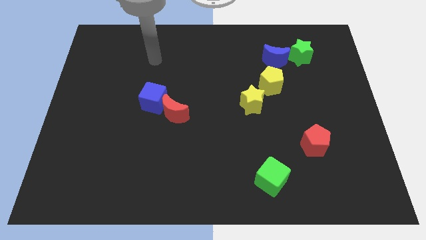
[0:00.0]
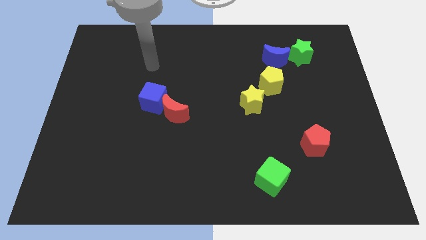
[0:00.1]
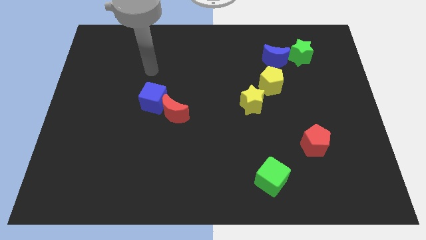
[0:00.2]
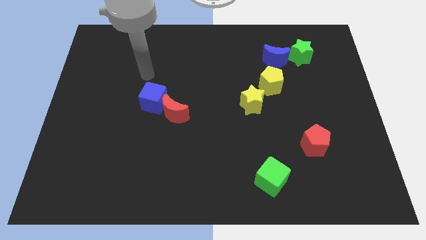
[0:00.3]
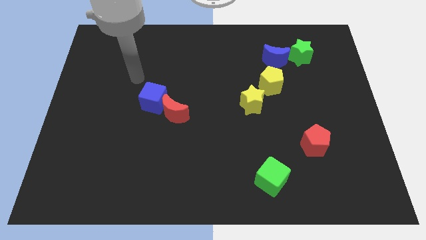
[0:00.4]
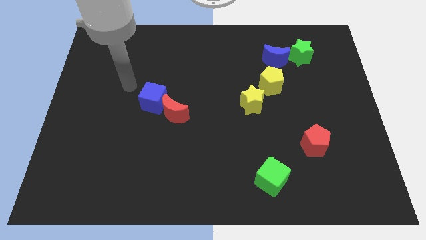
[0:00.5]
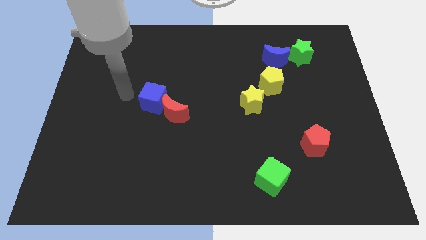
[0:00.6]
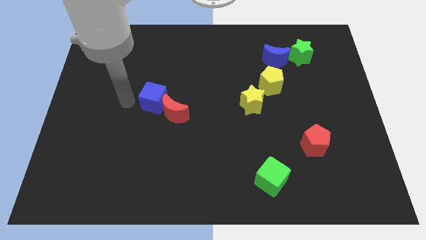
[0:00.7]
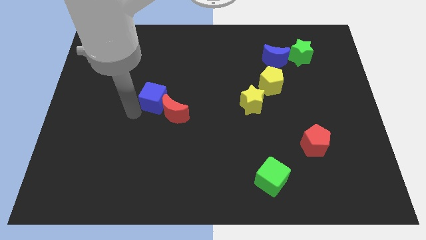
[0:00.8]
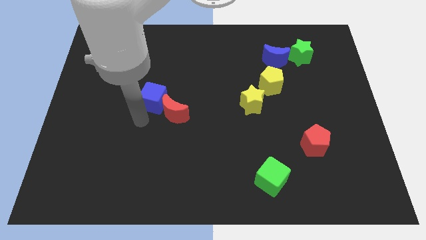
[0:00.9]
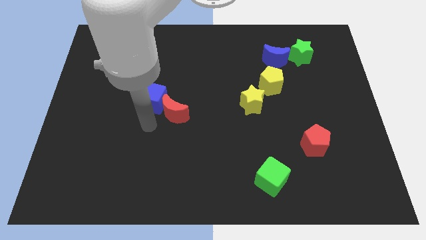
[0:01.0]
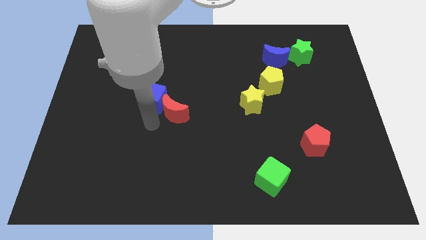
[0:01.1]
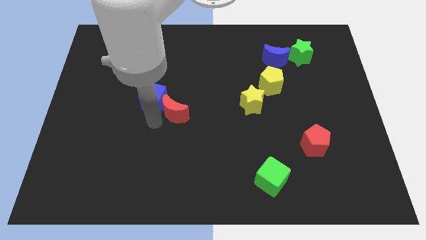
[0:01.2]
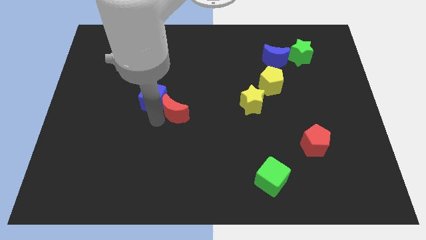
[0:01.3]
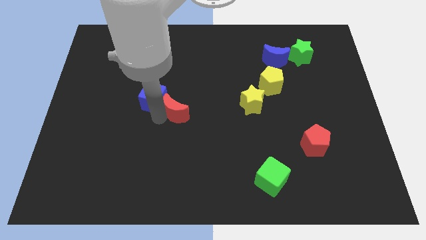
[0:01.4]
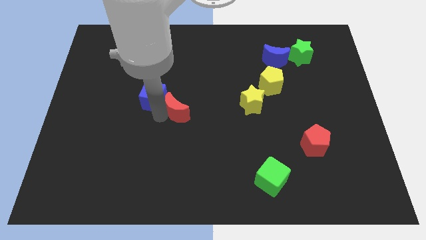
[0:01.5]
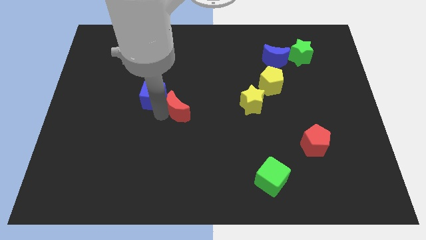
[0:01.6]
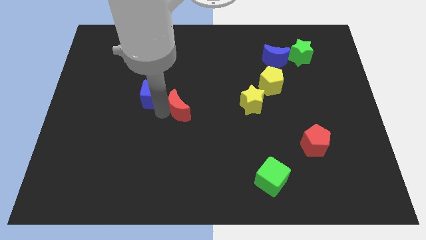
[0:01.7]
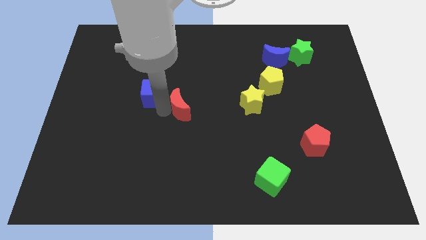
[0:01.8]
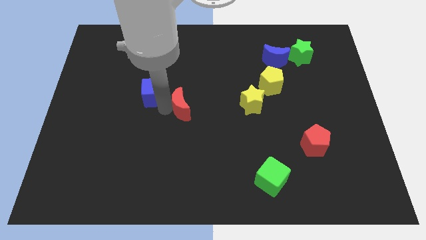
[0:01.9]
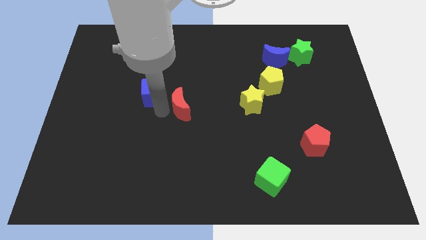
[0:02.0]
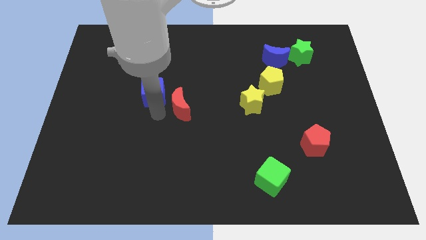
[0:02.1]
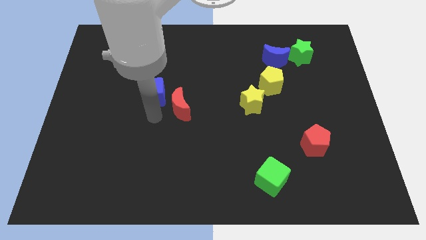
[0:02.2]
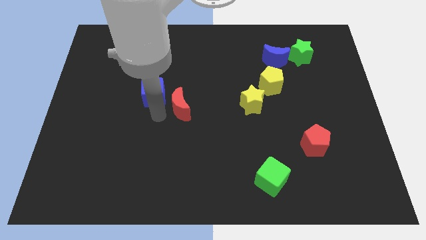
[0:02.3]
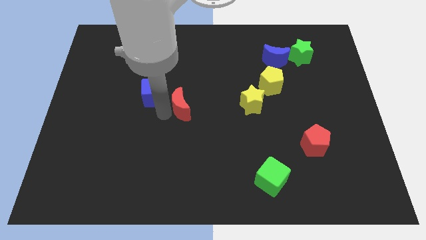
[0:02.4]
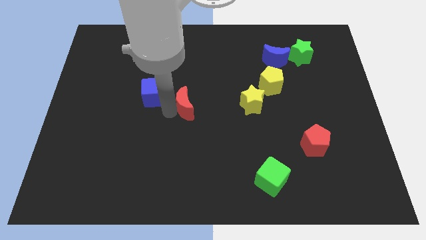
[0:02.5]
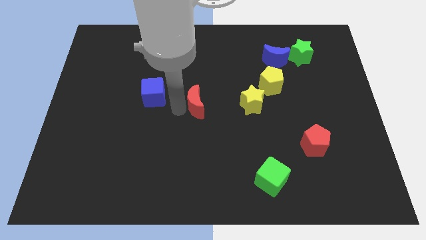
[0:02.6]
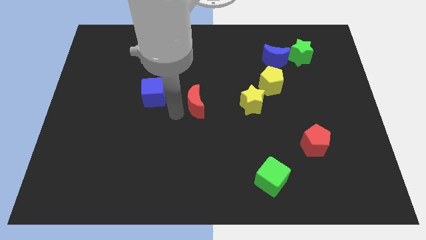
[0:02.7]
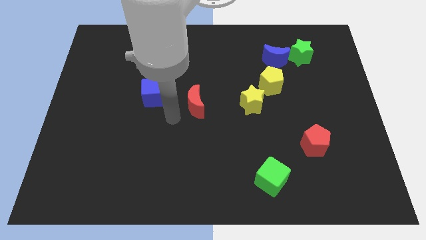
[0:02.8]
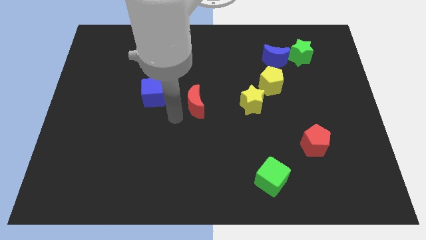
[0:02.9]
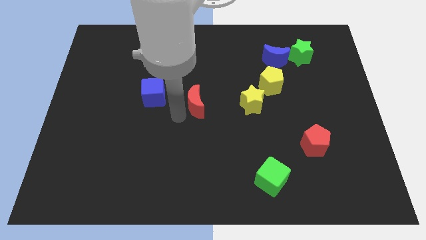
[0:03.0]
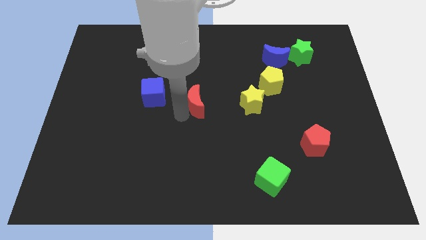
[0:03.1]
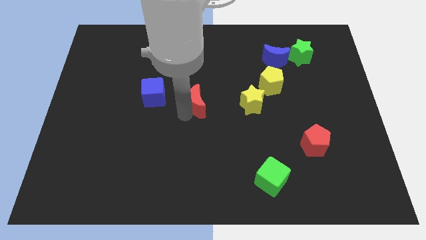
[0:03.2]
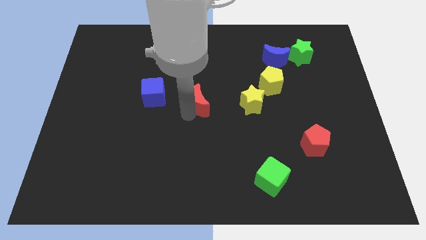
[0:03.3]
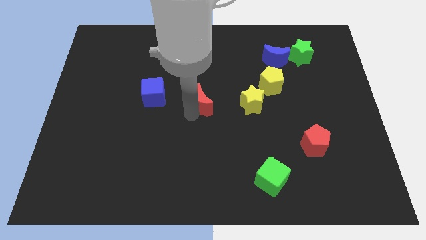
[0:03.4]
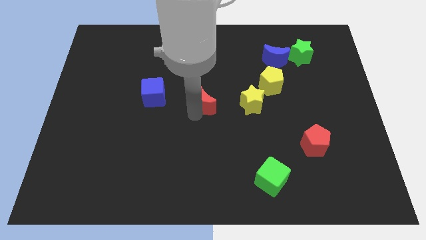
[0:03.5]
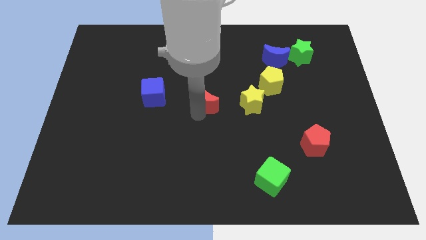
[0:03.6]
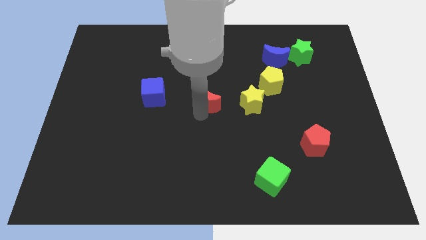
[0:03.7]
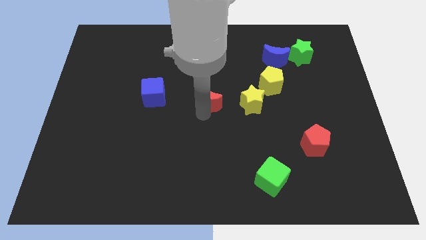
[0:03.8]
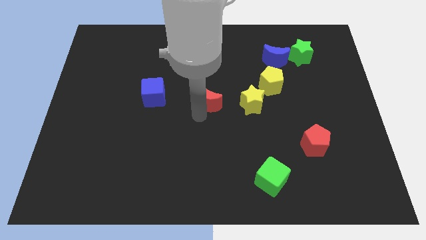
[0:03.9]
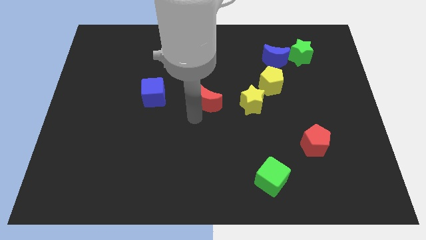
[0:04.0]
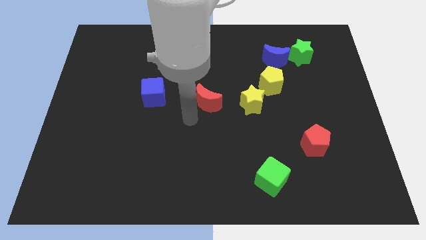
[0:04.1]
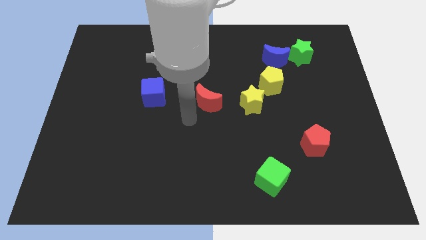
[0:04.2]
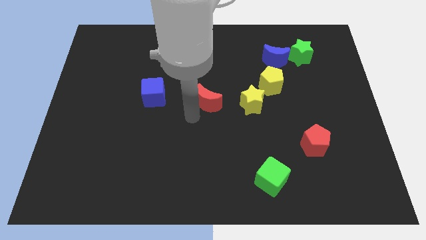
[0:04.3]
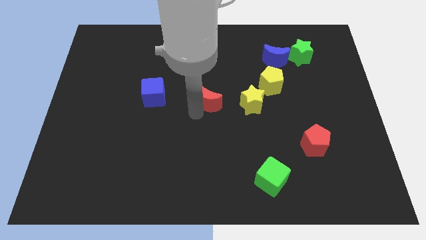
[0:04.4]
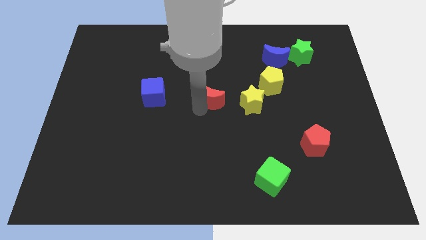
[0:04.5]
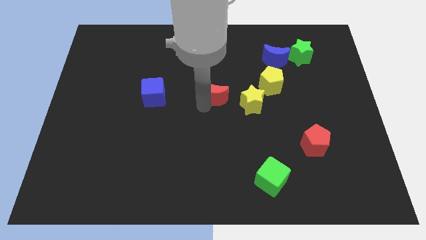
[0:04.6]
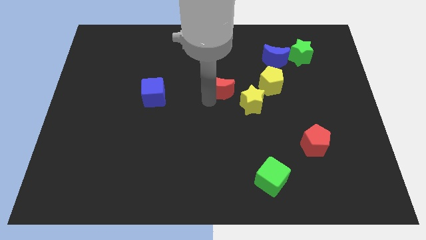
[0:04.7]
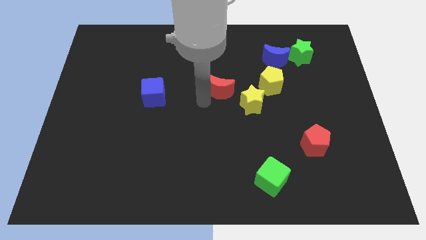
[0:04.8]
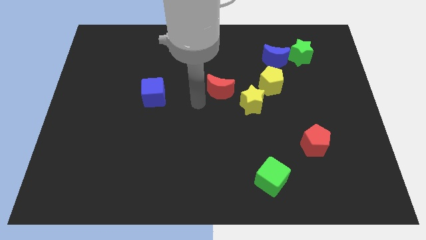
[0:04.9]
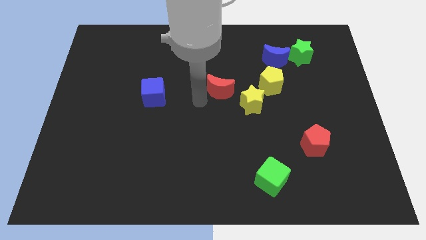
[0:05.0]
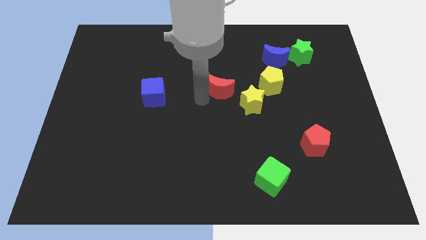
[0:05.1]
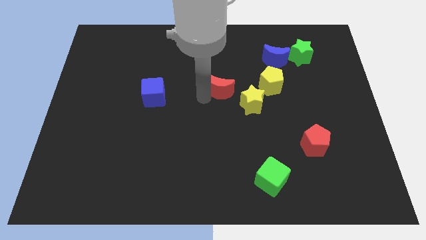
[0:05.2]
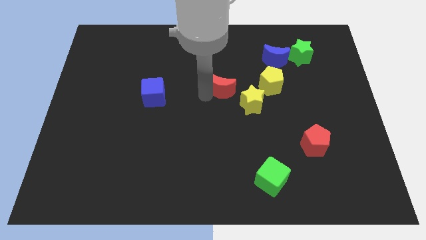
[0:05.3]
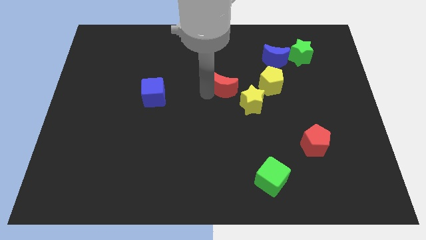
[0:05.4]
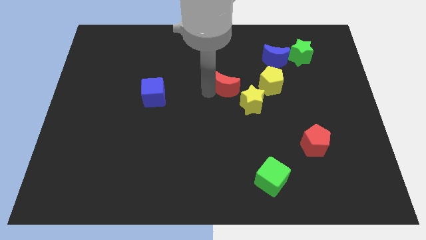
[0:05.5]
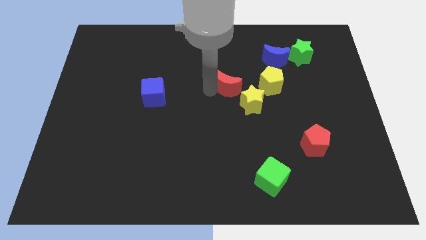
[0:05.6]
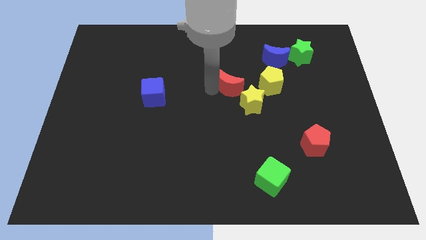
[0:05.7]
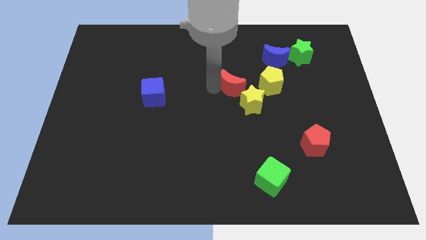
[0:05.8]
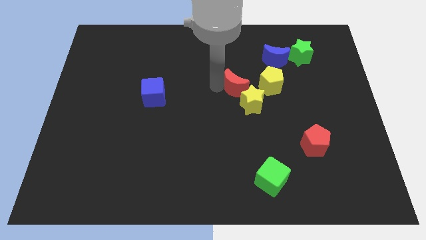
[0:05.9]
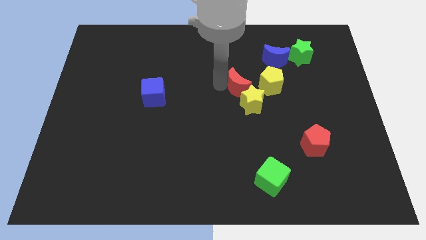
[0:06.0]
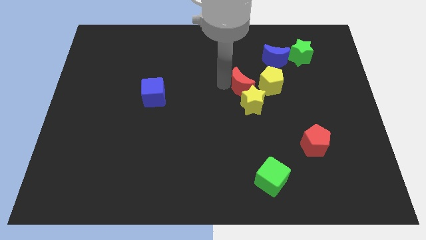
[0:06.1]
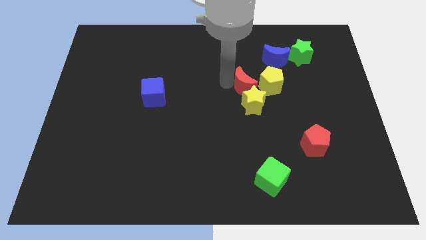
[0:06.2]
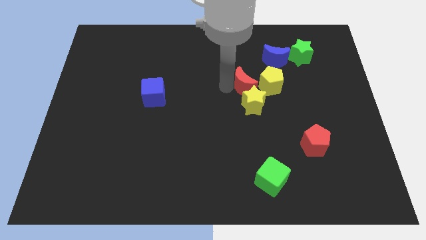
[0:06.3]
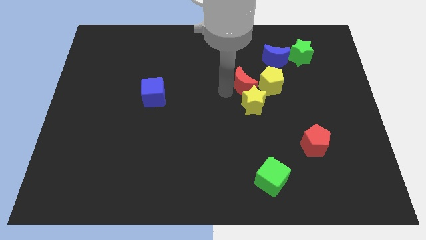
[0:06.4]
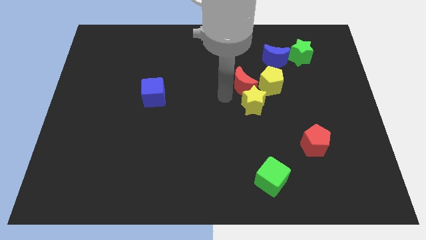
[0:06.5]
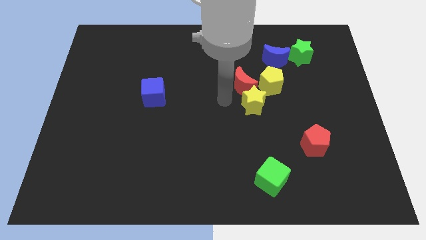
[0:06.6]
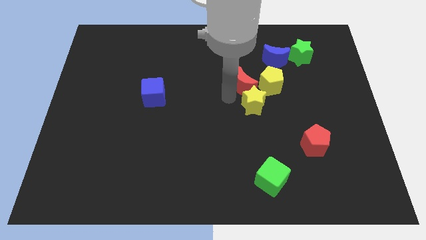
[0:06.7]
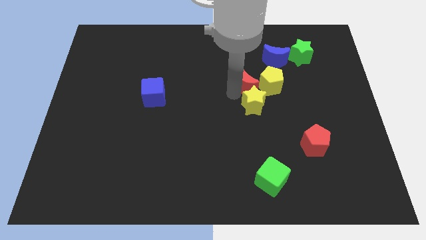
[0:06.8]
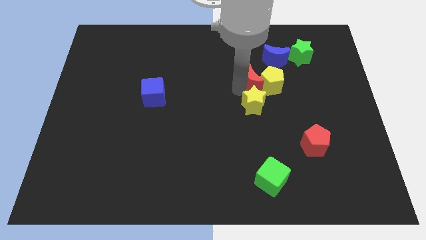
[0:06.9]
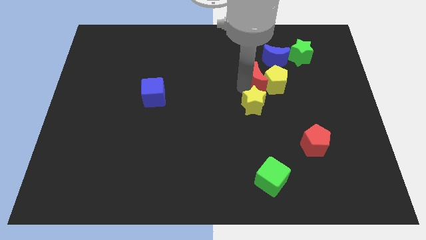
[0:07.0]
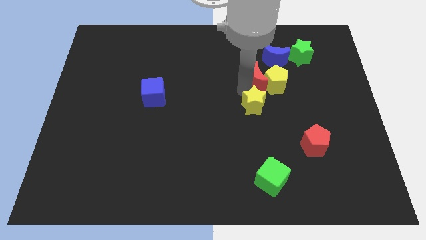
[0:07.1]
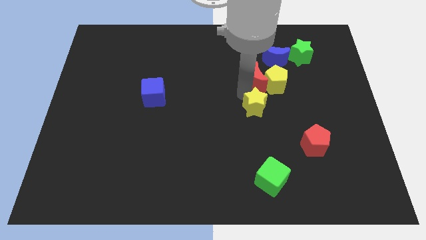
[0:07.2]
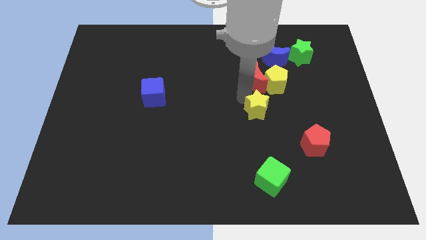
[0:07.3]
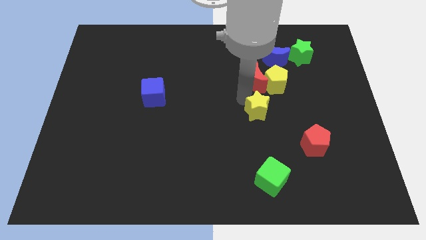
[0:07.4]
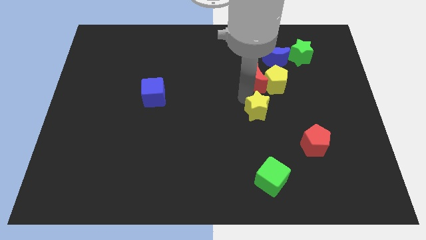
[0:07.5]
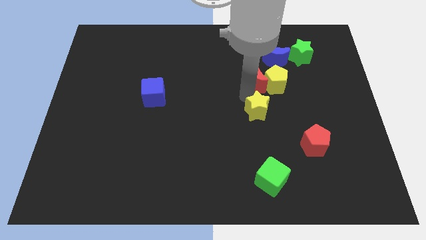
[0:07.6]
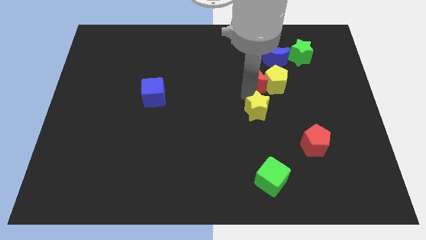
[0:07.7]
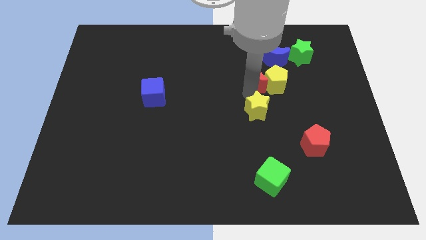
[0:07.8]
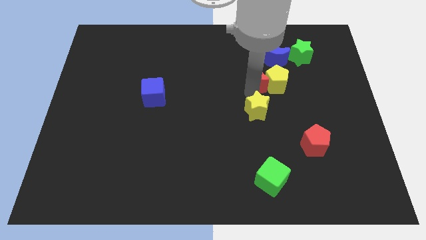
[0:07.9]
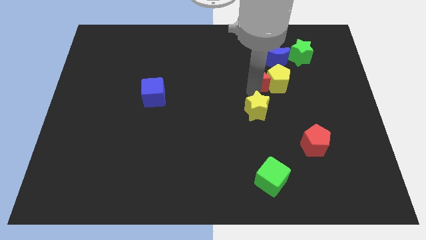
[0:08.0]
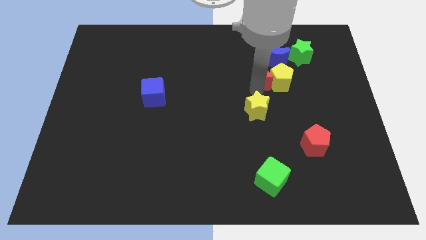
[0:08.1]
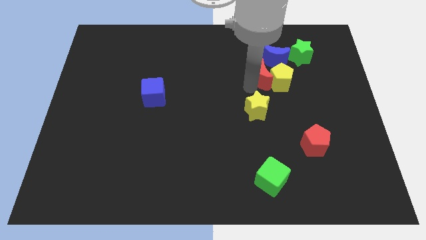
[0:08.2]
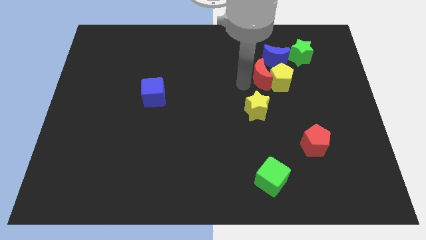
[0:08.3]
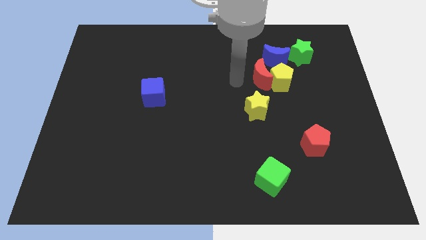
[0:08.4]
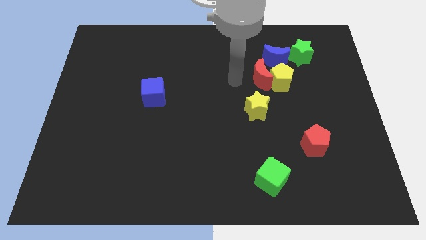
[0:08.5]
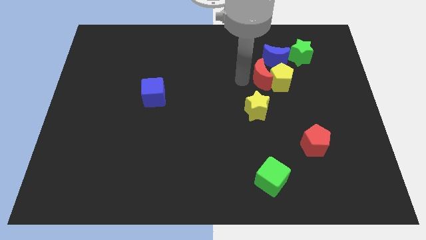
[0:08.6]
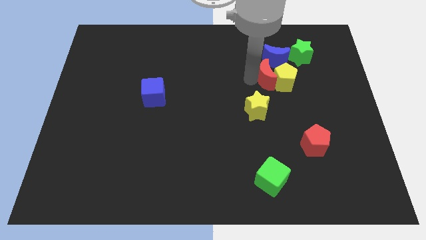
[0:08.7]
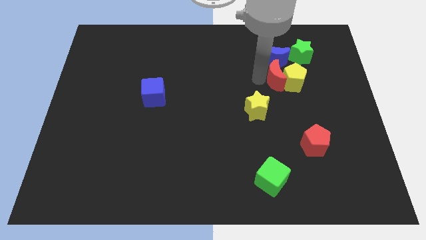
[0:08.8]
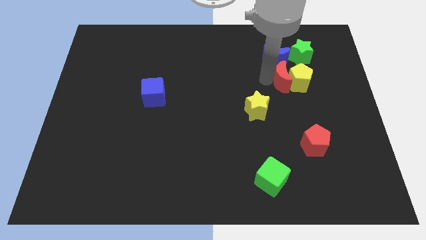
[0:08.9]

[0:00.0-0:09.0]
put the red moon to the bottom right of the blue moon
